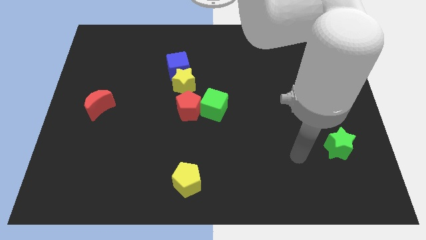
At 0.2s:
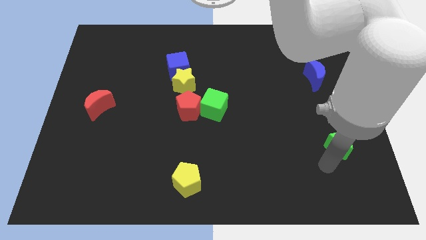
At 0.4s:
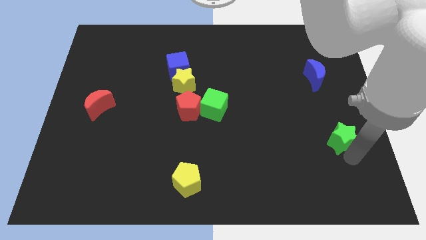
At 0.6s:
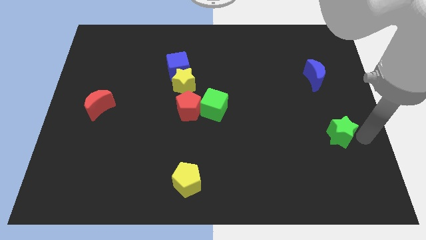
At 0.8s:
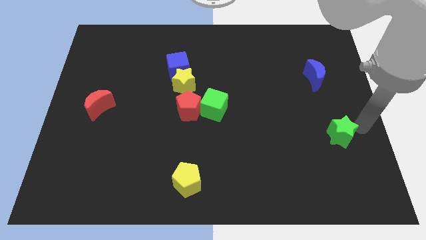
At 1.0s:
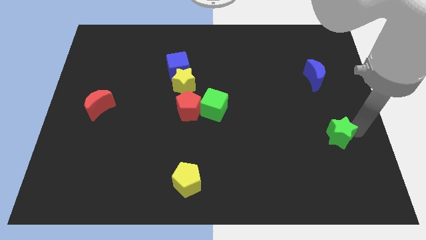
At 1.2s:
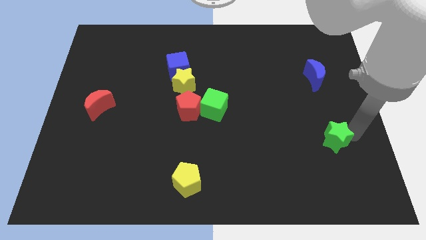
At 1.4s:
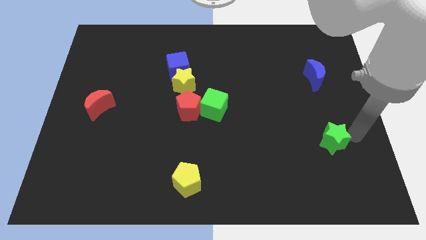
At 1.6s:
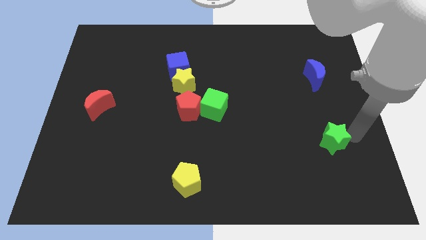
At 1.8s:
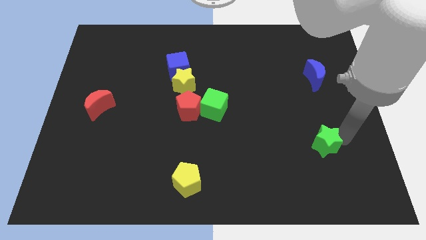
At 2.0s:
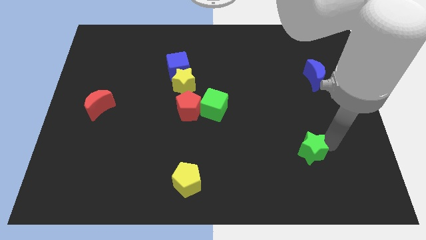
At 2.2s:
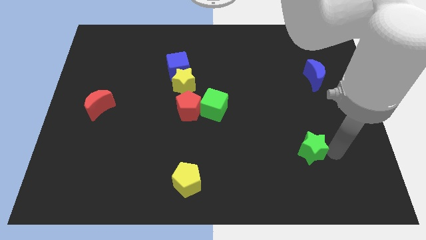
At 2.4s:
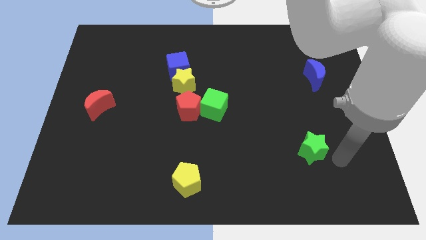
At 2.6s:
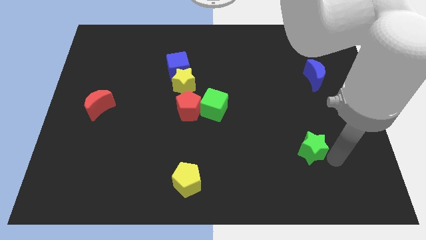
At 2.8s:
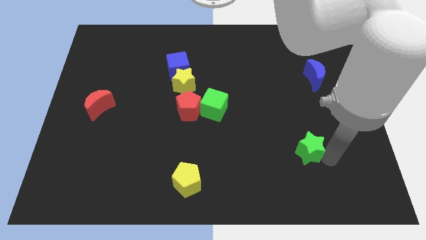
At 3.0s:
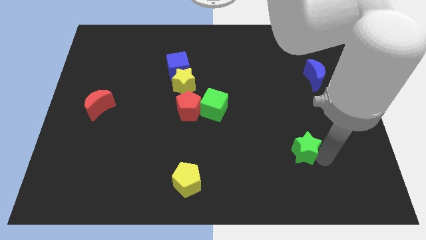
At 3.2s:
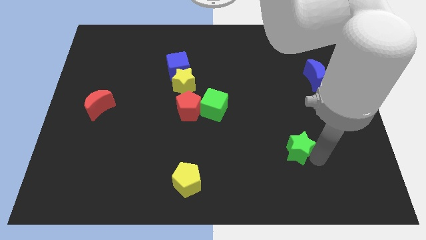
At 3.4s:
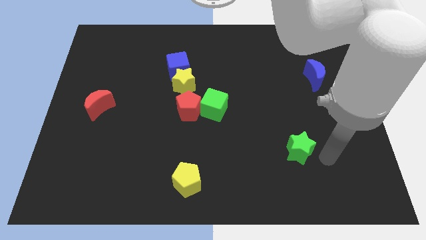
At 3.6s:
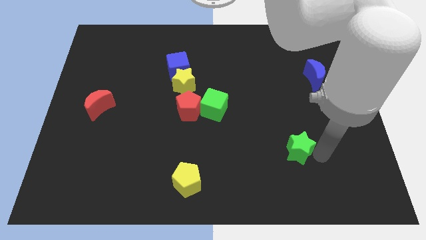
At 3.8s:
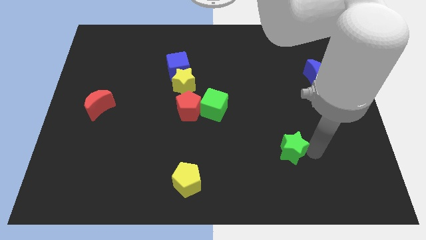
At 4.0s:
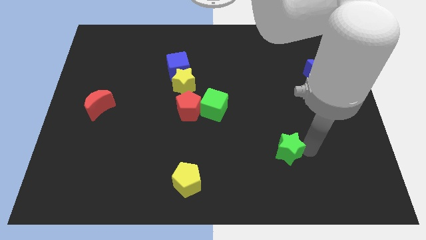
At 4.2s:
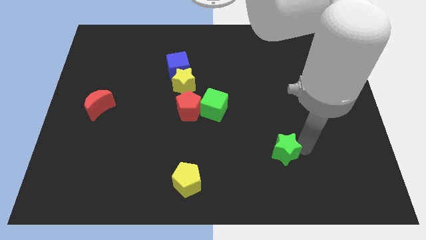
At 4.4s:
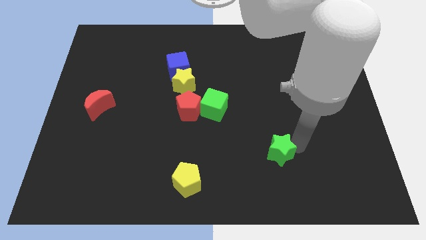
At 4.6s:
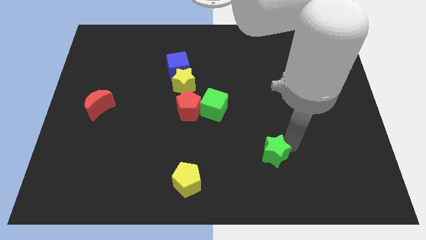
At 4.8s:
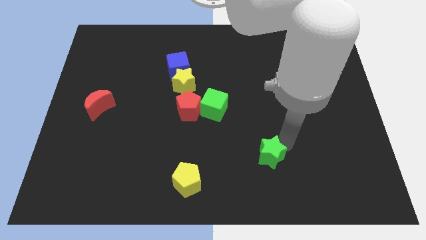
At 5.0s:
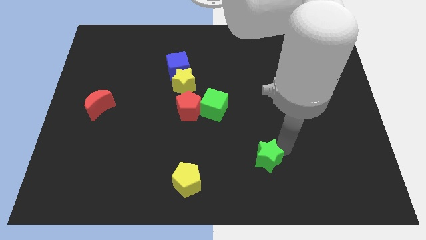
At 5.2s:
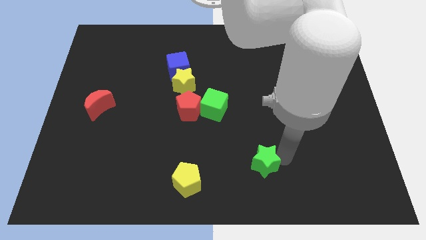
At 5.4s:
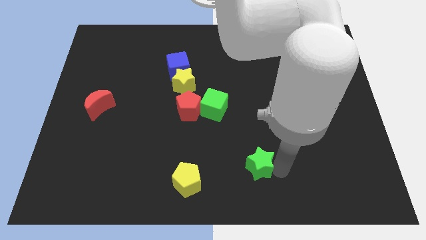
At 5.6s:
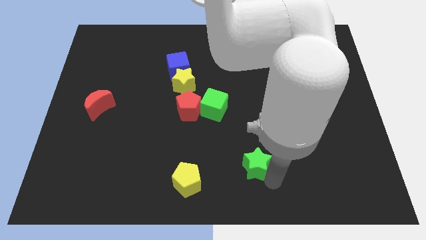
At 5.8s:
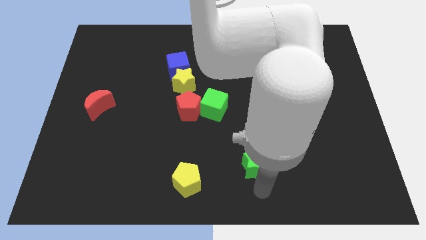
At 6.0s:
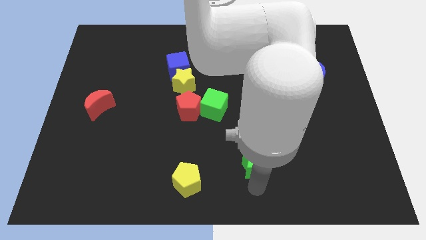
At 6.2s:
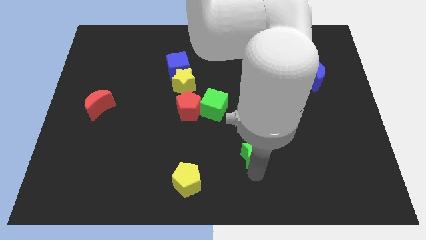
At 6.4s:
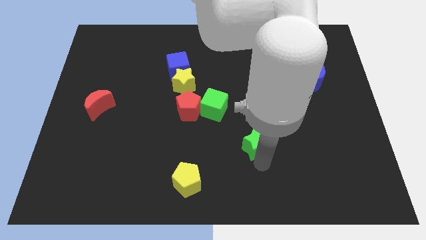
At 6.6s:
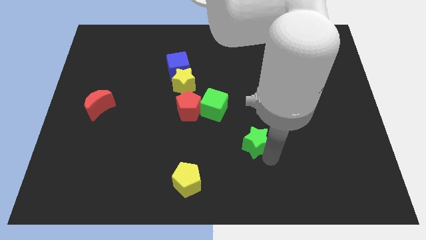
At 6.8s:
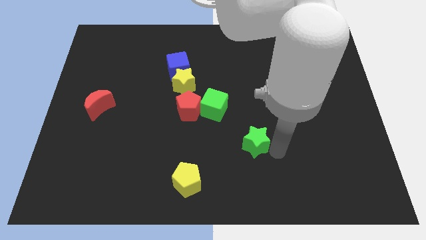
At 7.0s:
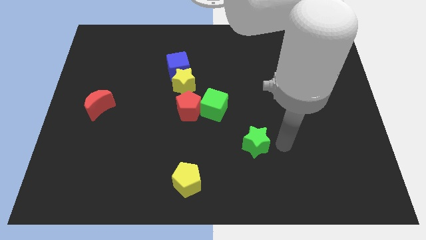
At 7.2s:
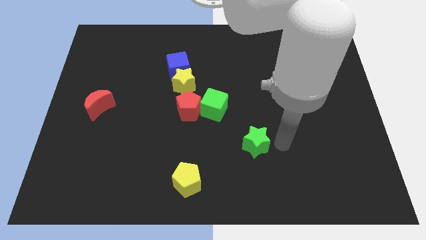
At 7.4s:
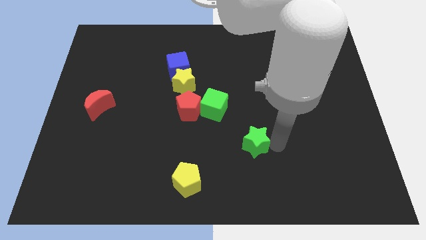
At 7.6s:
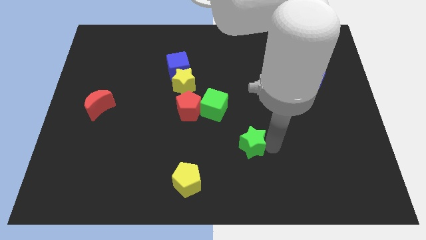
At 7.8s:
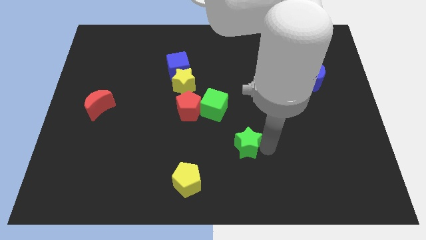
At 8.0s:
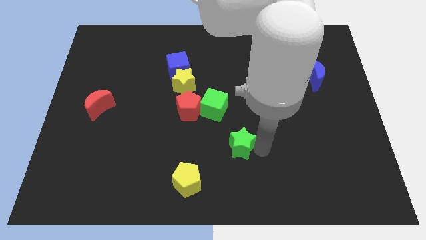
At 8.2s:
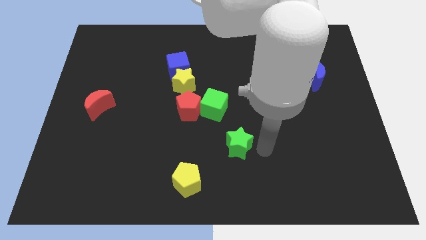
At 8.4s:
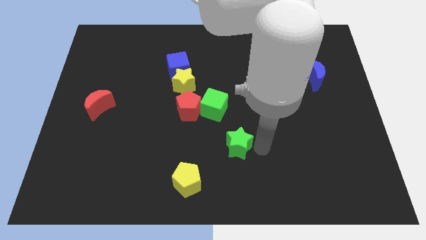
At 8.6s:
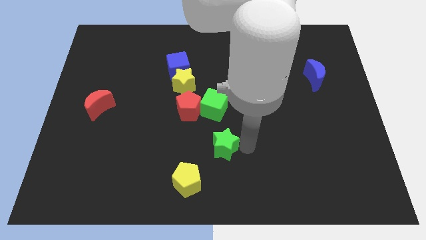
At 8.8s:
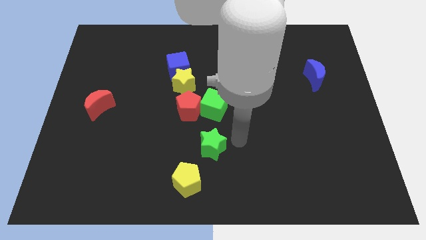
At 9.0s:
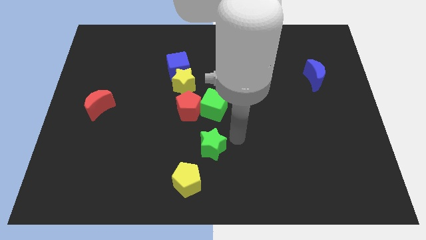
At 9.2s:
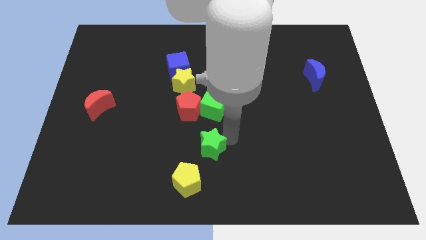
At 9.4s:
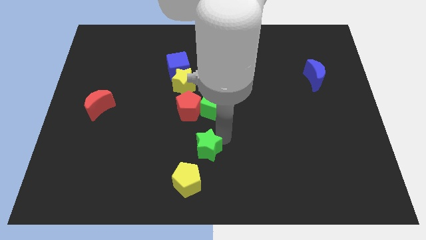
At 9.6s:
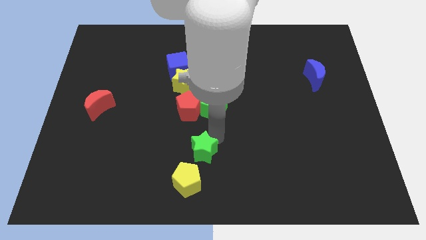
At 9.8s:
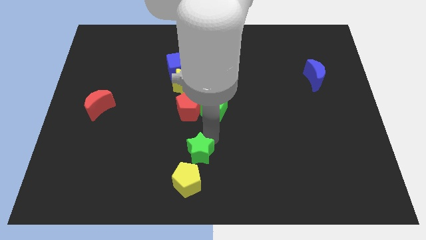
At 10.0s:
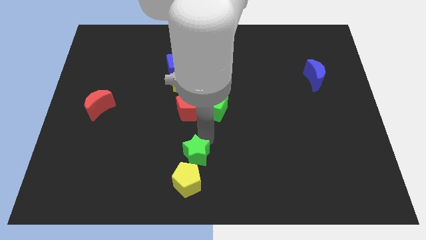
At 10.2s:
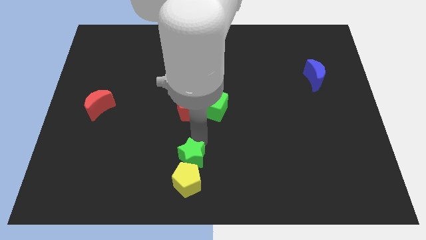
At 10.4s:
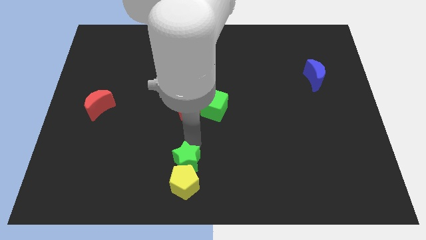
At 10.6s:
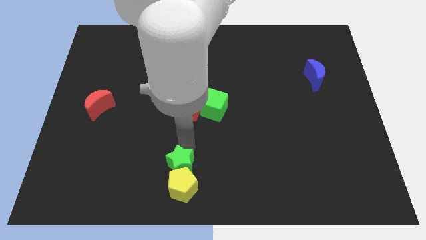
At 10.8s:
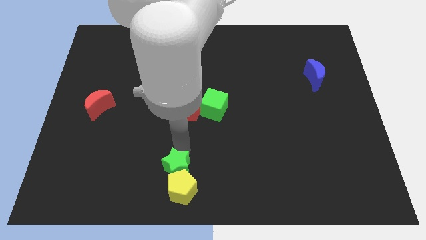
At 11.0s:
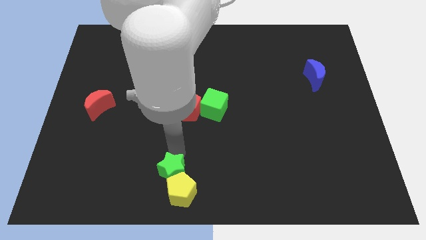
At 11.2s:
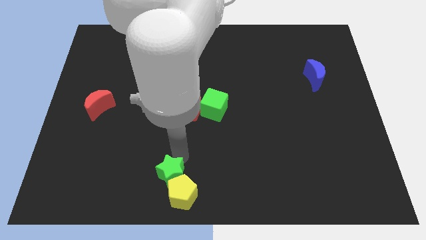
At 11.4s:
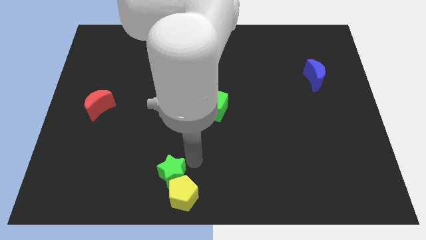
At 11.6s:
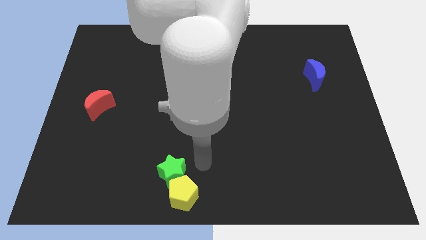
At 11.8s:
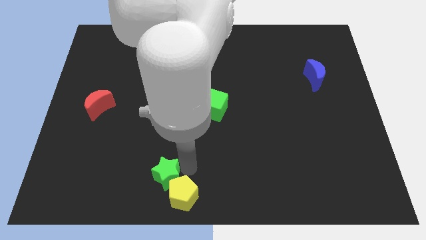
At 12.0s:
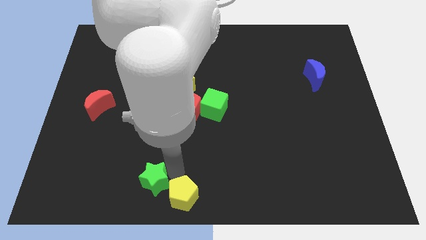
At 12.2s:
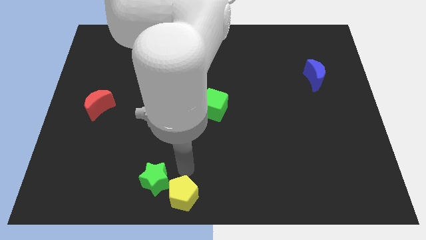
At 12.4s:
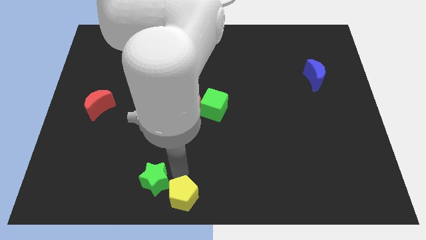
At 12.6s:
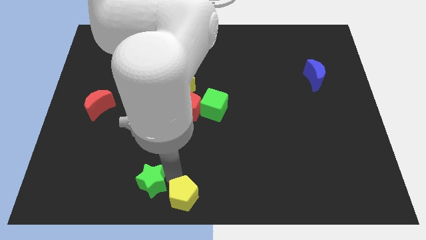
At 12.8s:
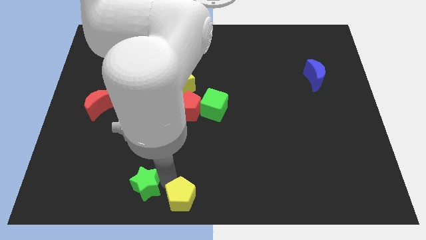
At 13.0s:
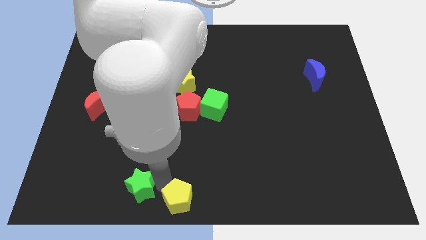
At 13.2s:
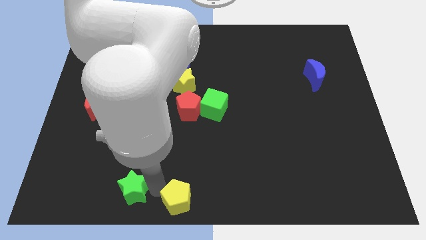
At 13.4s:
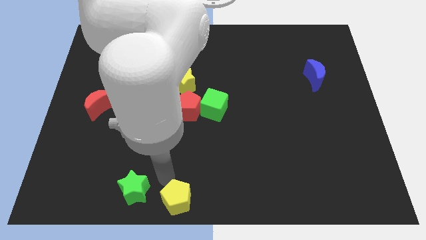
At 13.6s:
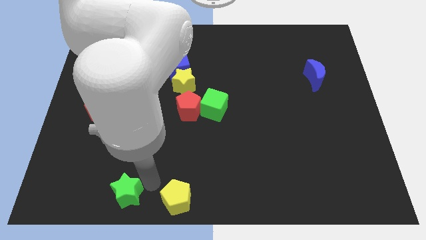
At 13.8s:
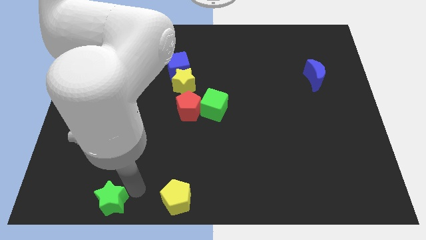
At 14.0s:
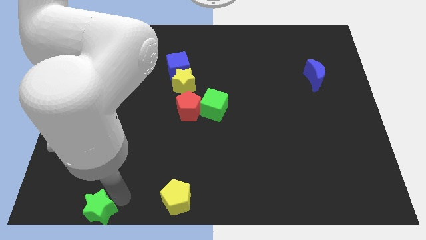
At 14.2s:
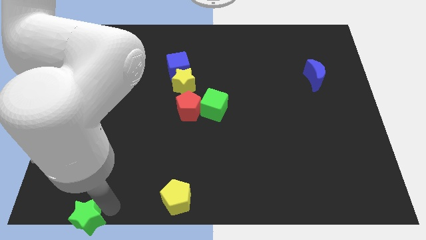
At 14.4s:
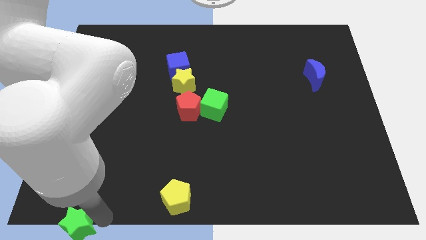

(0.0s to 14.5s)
push the green star to the lower left corner
